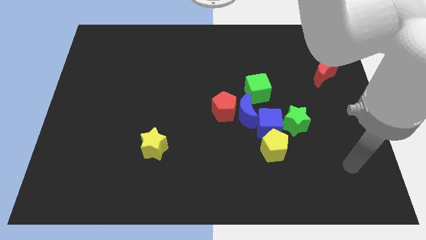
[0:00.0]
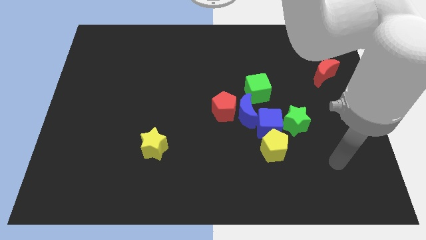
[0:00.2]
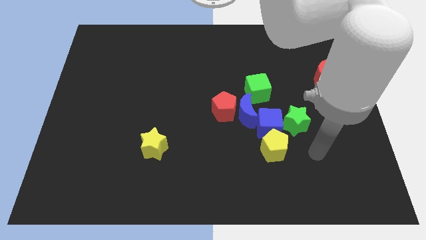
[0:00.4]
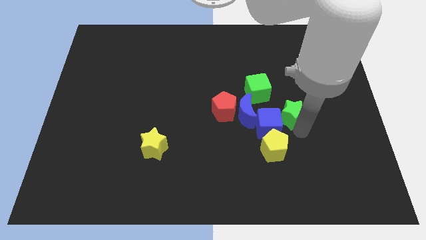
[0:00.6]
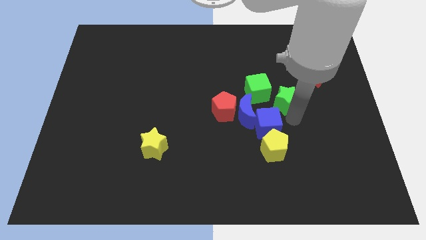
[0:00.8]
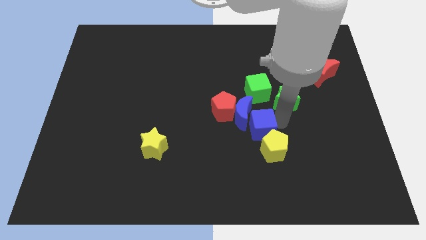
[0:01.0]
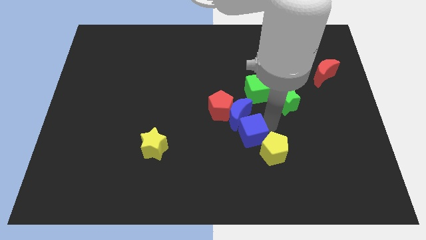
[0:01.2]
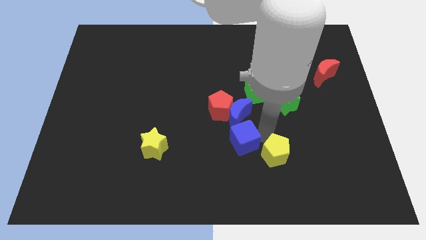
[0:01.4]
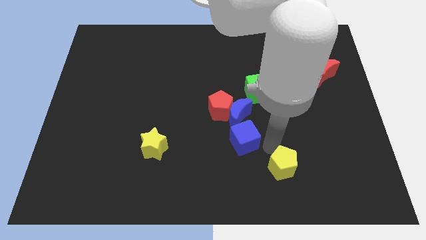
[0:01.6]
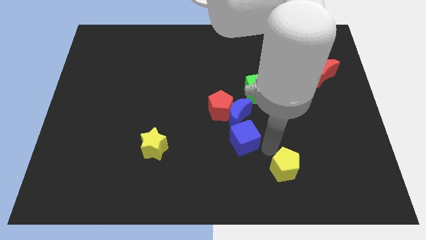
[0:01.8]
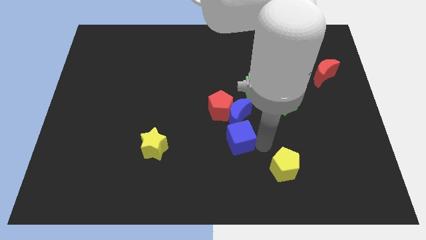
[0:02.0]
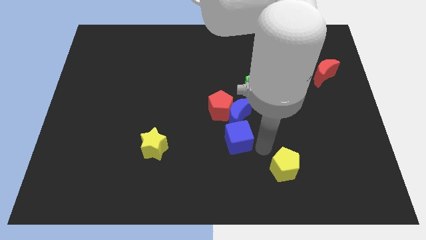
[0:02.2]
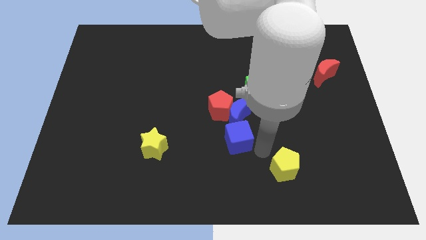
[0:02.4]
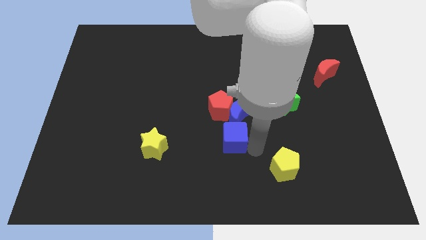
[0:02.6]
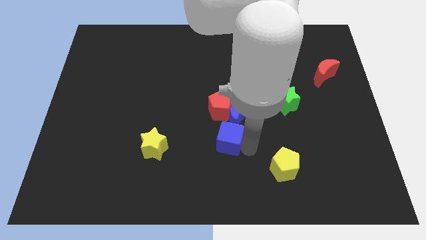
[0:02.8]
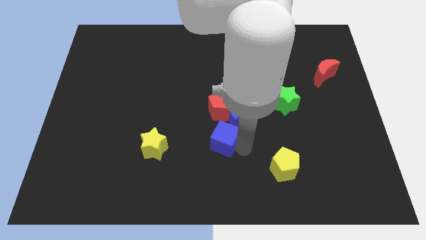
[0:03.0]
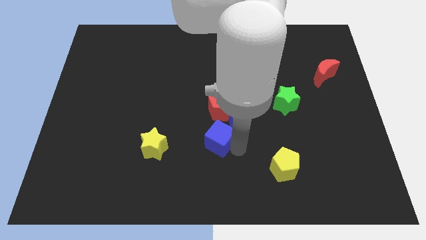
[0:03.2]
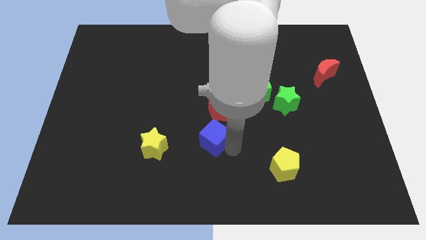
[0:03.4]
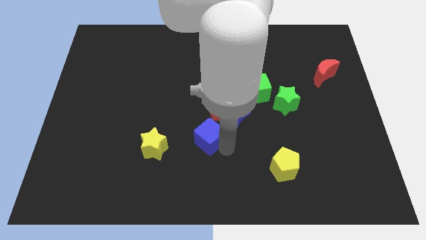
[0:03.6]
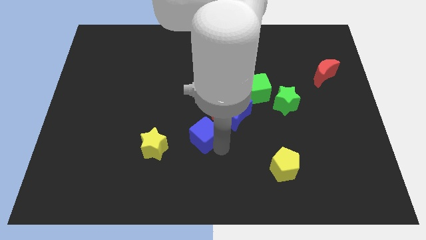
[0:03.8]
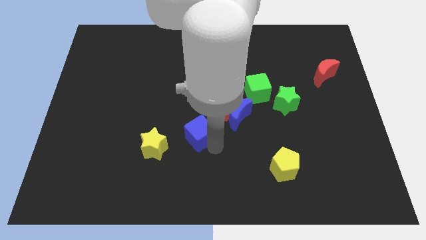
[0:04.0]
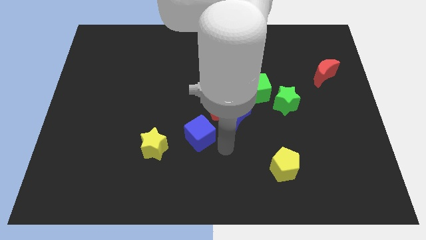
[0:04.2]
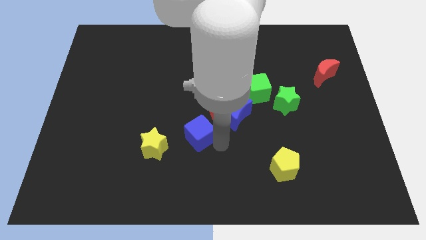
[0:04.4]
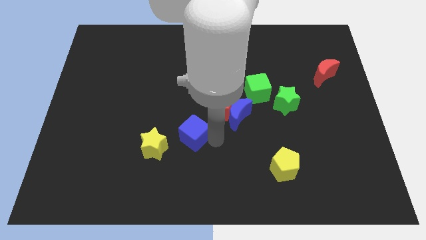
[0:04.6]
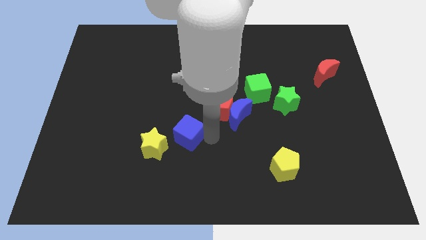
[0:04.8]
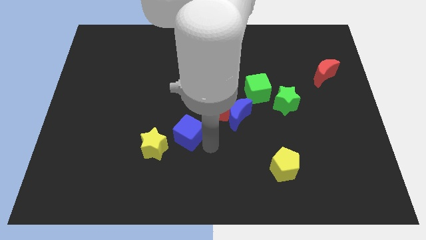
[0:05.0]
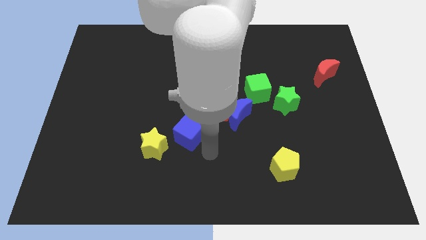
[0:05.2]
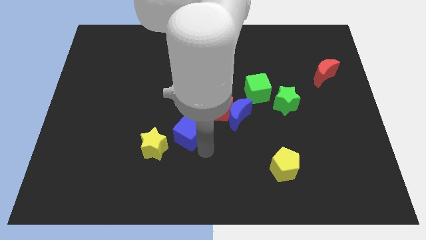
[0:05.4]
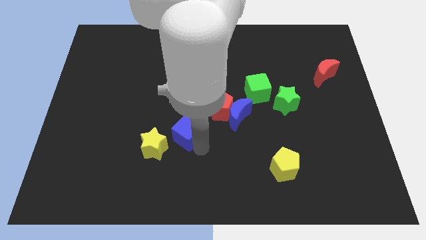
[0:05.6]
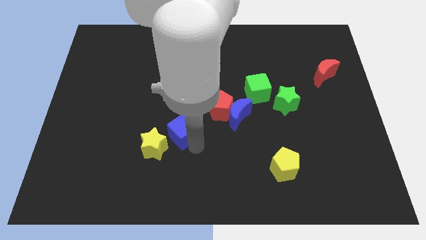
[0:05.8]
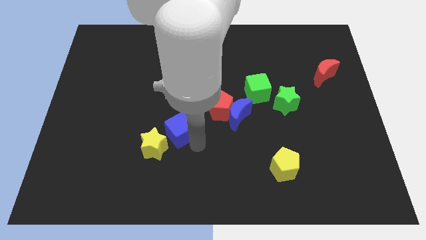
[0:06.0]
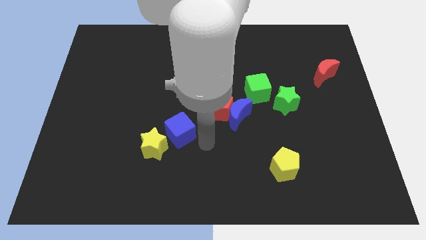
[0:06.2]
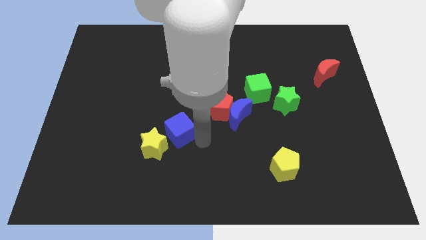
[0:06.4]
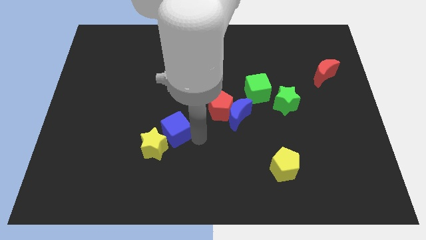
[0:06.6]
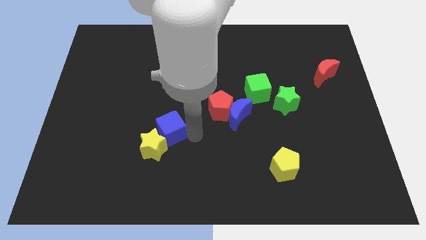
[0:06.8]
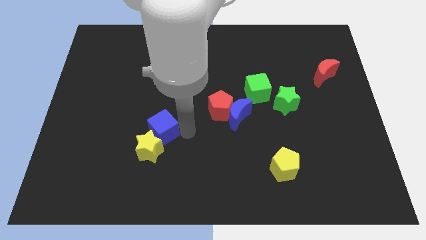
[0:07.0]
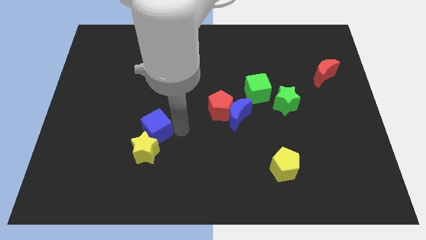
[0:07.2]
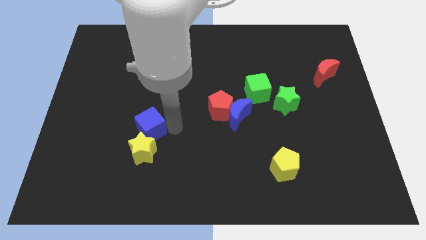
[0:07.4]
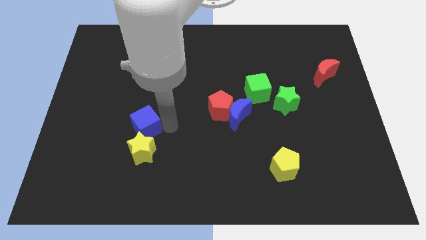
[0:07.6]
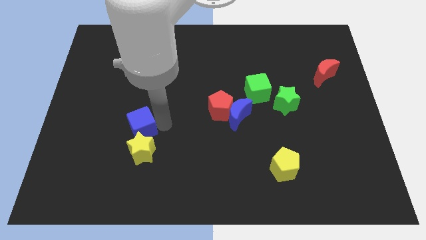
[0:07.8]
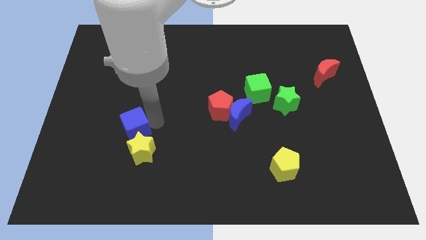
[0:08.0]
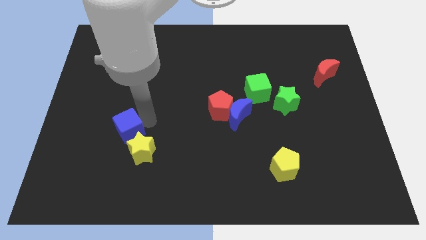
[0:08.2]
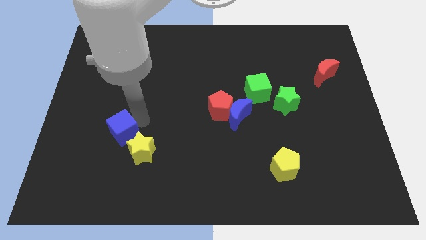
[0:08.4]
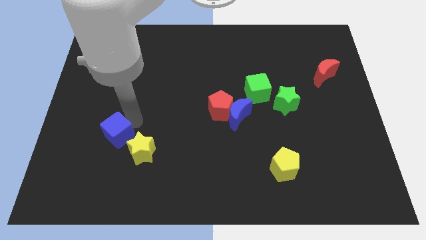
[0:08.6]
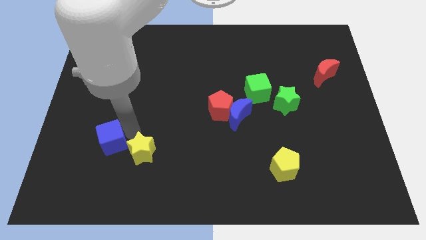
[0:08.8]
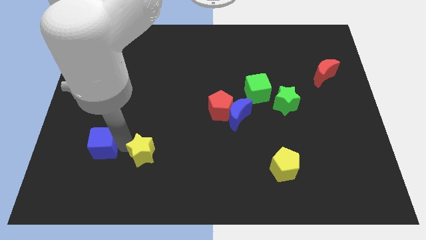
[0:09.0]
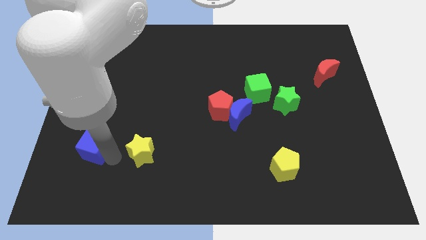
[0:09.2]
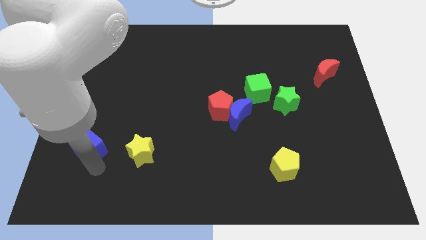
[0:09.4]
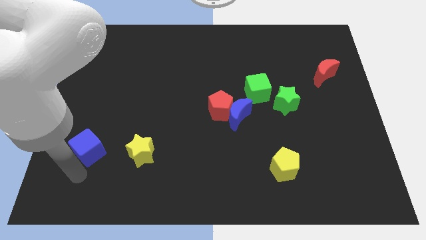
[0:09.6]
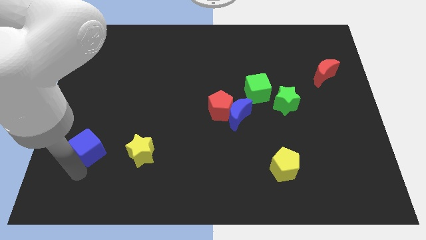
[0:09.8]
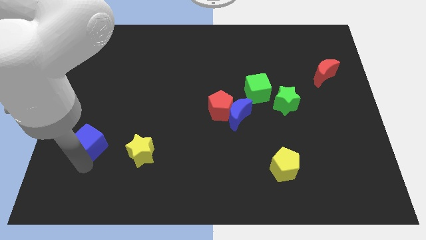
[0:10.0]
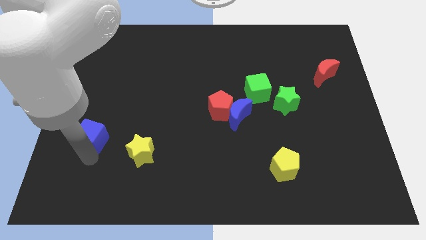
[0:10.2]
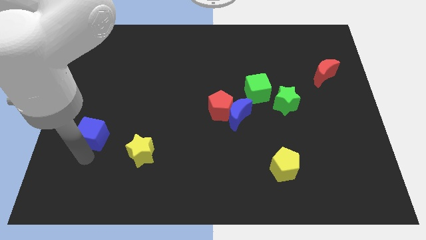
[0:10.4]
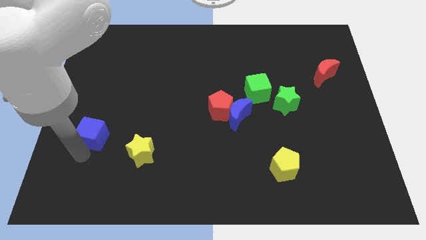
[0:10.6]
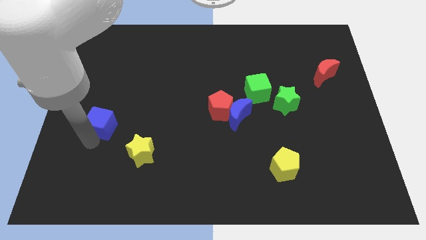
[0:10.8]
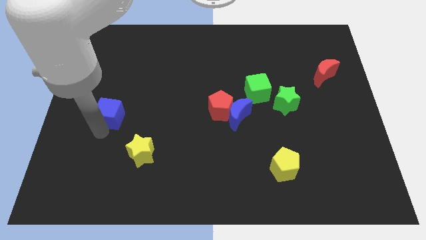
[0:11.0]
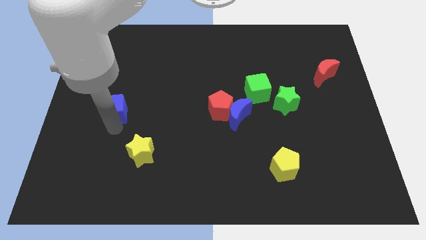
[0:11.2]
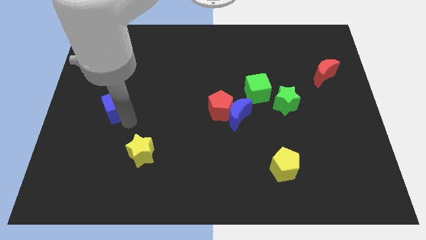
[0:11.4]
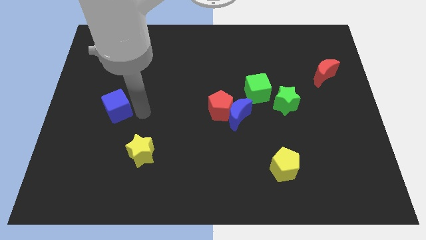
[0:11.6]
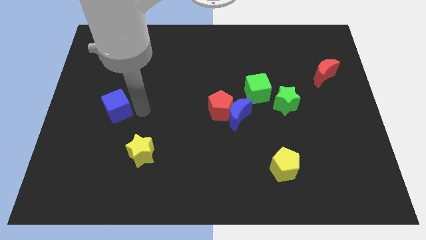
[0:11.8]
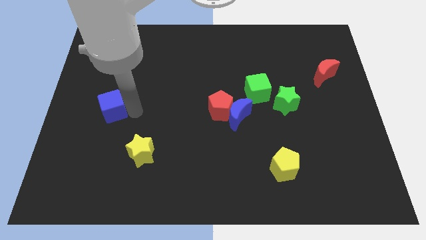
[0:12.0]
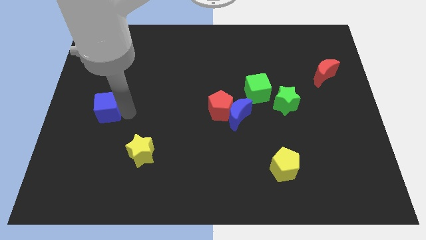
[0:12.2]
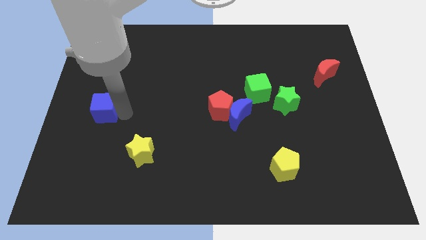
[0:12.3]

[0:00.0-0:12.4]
slide the blue cube to the left side of the board
